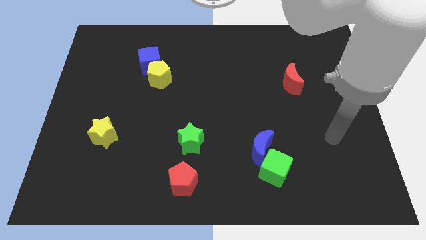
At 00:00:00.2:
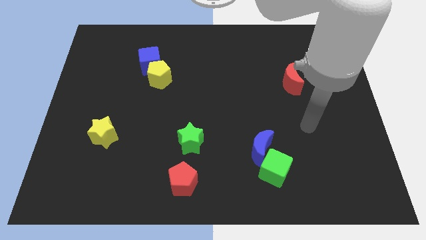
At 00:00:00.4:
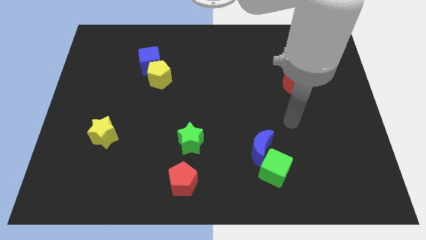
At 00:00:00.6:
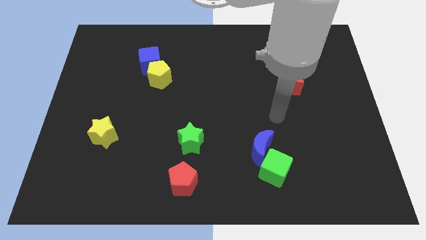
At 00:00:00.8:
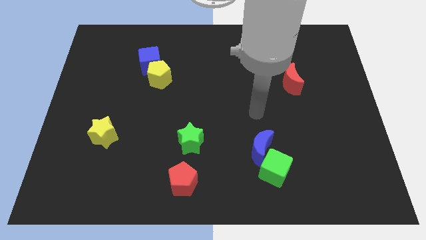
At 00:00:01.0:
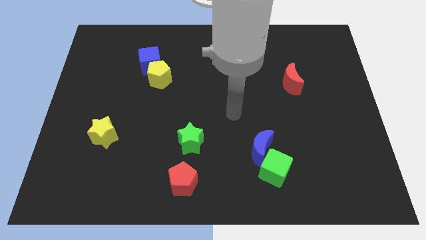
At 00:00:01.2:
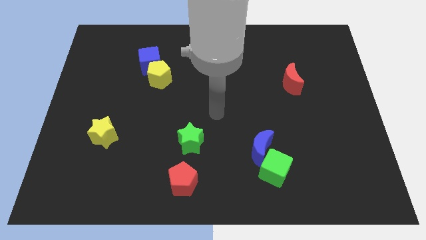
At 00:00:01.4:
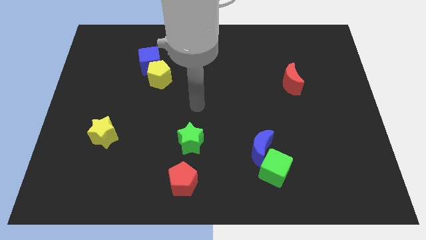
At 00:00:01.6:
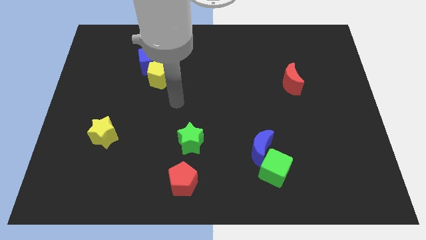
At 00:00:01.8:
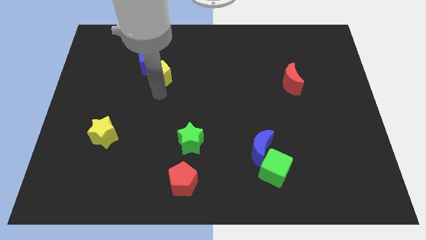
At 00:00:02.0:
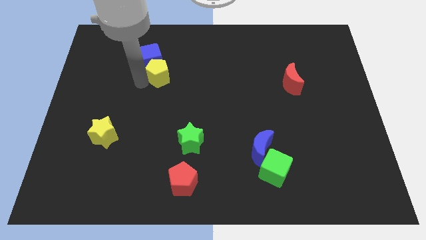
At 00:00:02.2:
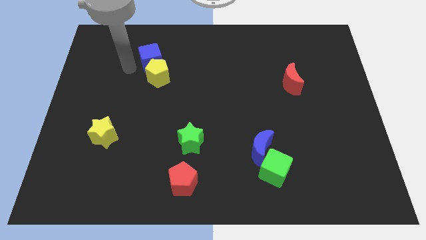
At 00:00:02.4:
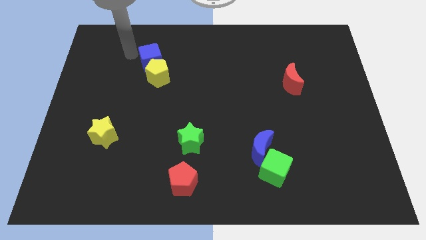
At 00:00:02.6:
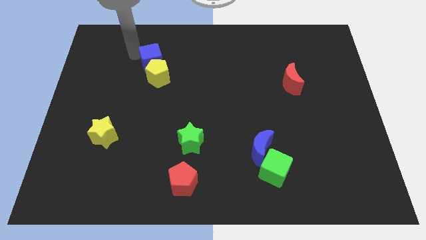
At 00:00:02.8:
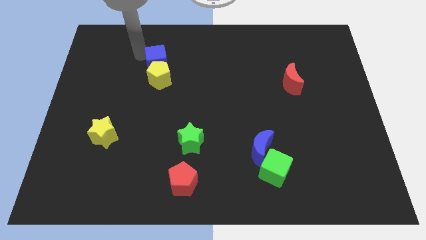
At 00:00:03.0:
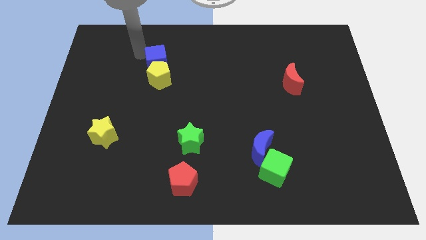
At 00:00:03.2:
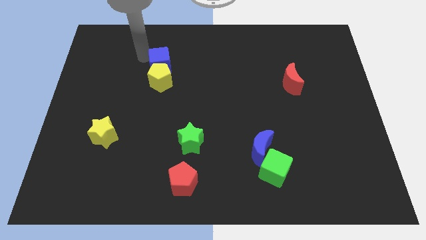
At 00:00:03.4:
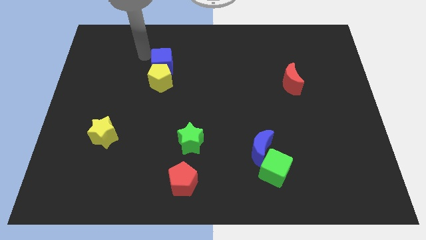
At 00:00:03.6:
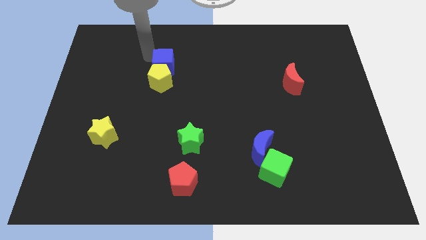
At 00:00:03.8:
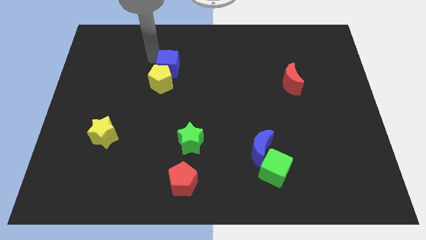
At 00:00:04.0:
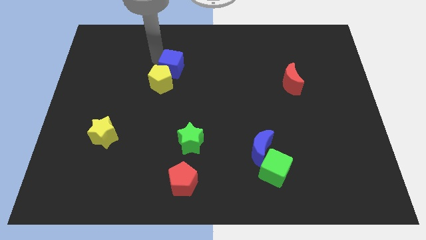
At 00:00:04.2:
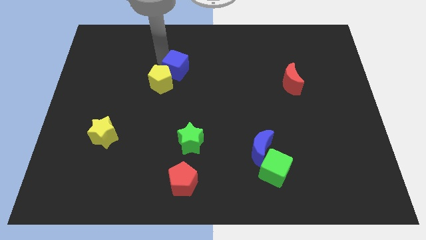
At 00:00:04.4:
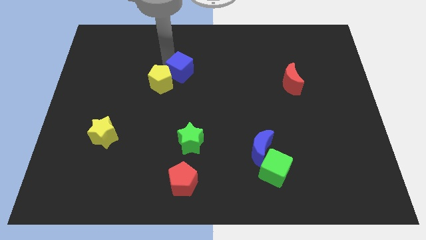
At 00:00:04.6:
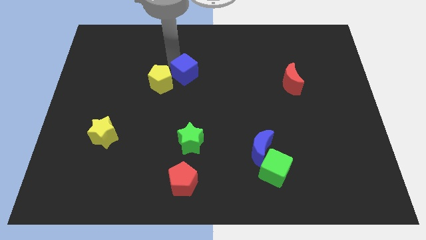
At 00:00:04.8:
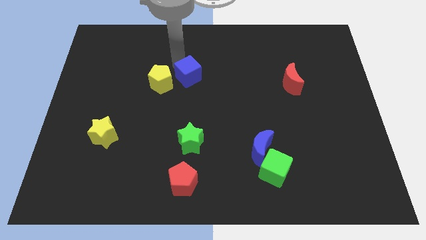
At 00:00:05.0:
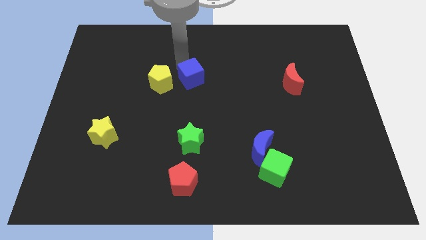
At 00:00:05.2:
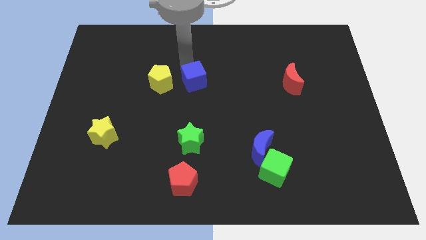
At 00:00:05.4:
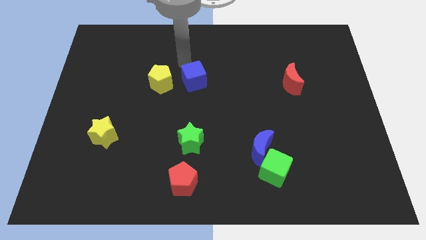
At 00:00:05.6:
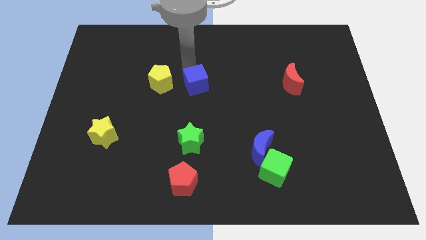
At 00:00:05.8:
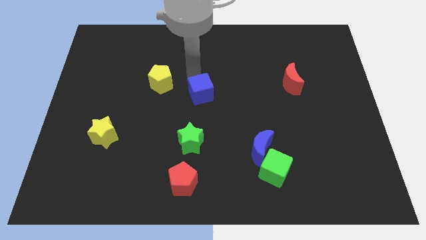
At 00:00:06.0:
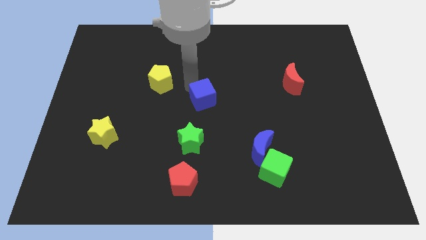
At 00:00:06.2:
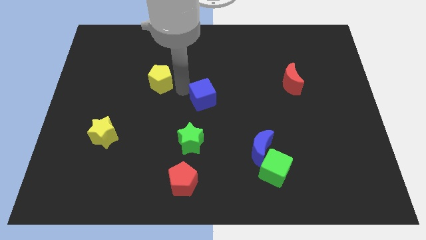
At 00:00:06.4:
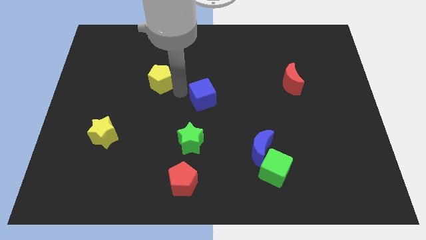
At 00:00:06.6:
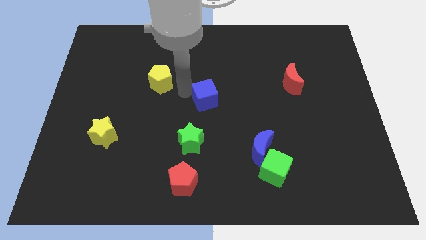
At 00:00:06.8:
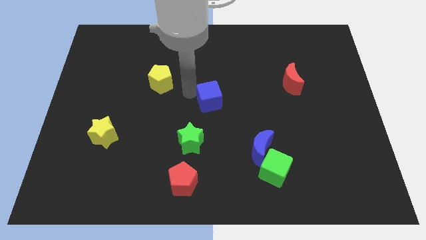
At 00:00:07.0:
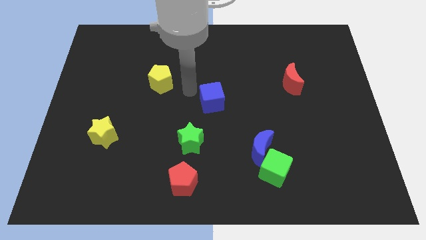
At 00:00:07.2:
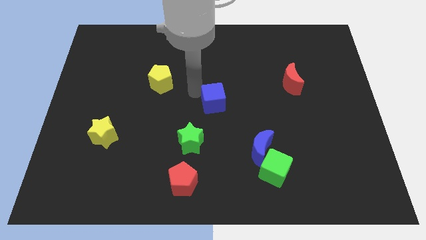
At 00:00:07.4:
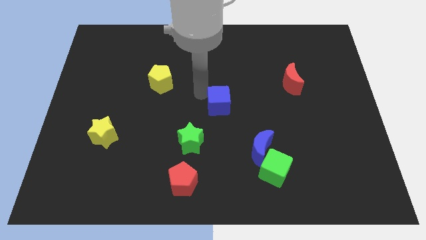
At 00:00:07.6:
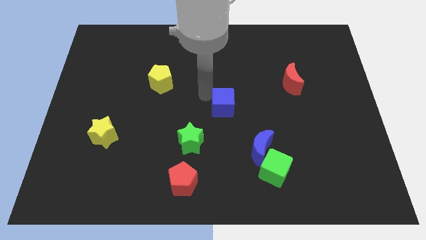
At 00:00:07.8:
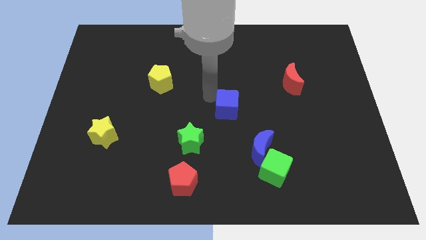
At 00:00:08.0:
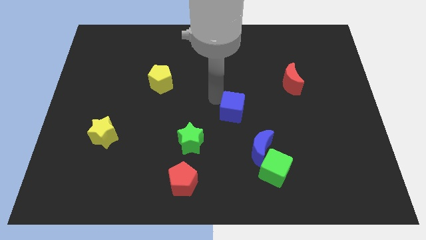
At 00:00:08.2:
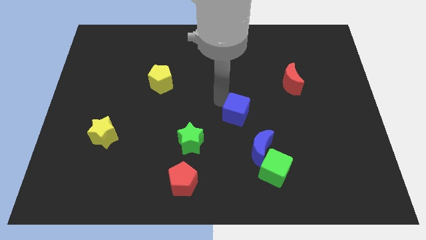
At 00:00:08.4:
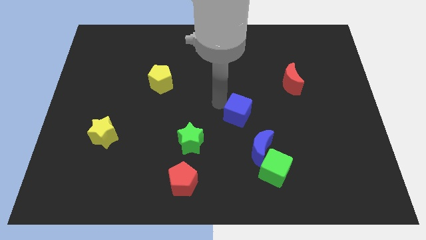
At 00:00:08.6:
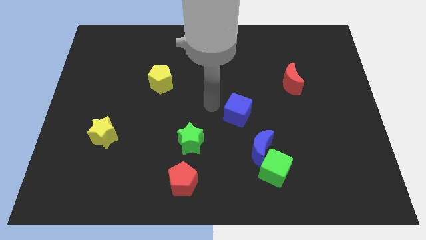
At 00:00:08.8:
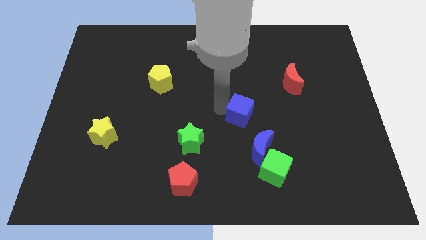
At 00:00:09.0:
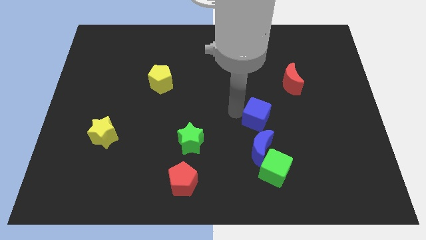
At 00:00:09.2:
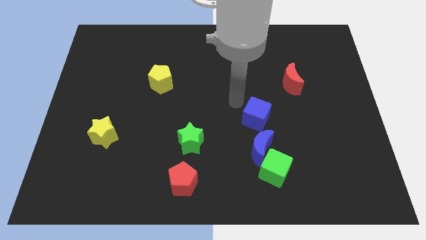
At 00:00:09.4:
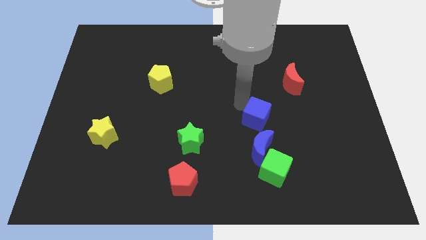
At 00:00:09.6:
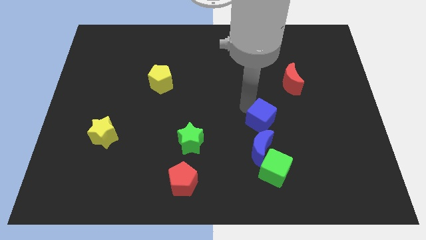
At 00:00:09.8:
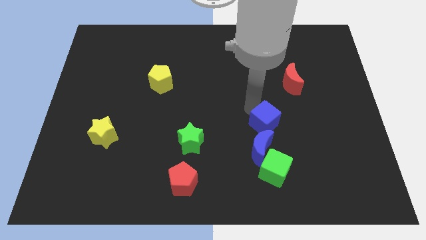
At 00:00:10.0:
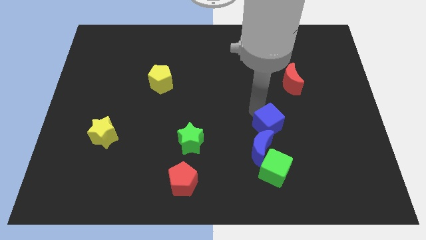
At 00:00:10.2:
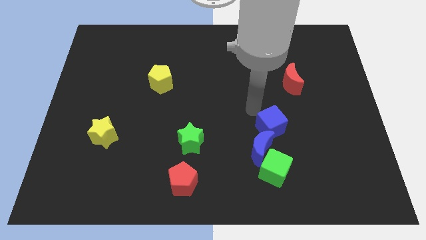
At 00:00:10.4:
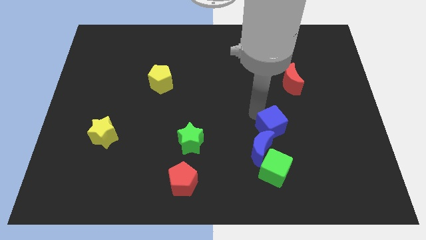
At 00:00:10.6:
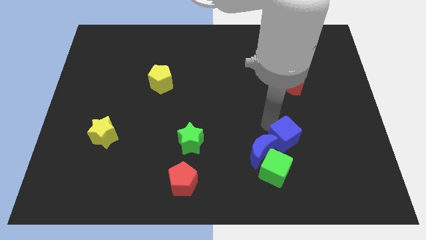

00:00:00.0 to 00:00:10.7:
move the blue cube to the top right of the green cube
